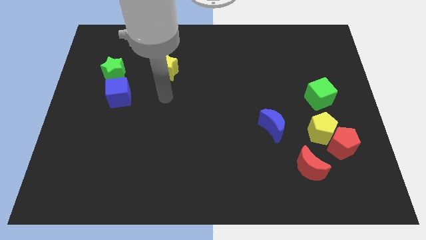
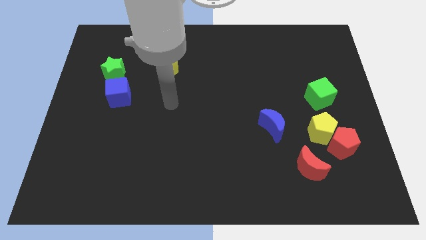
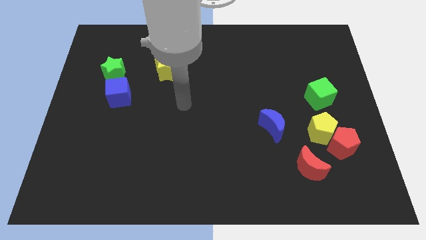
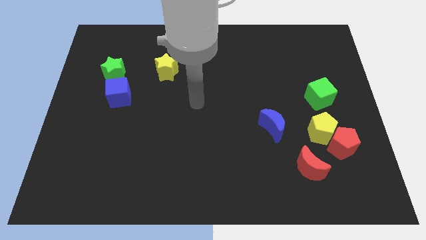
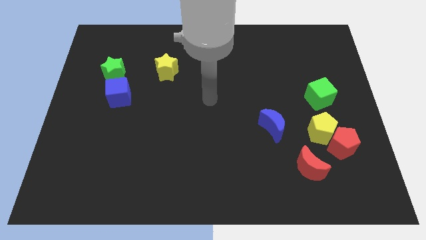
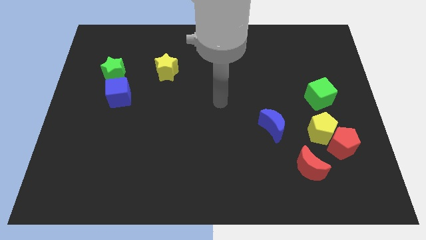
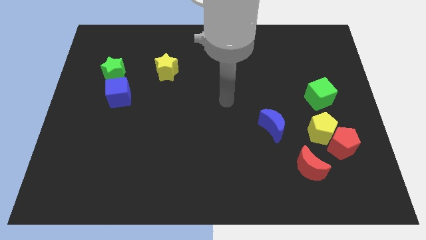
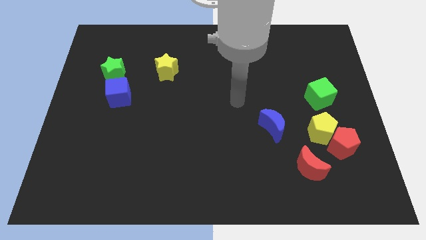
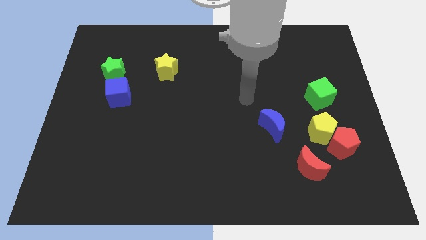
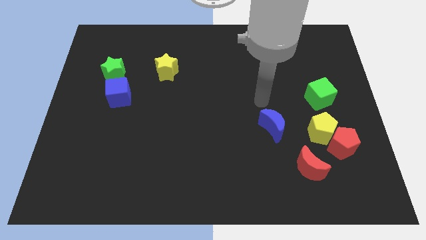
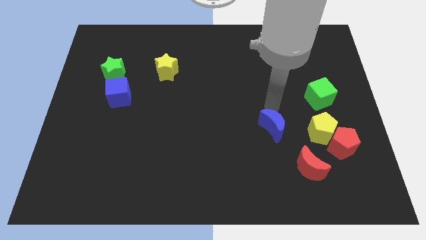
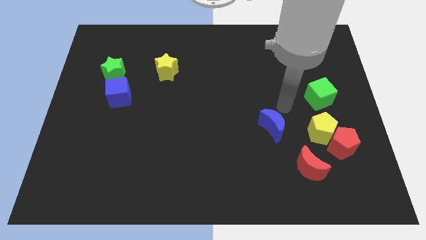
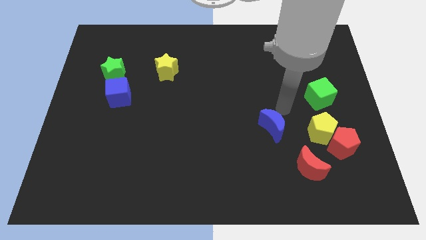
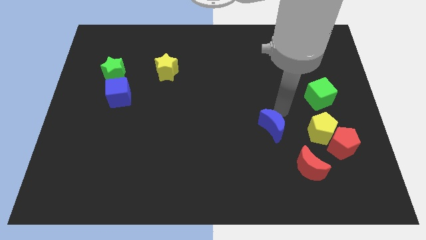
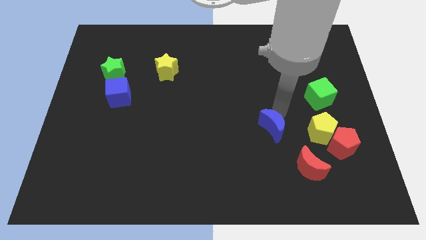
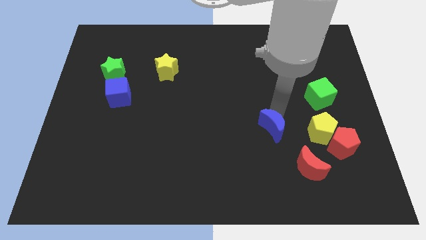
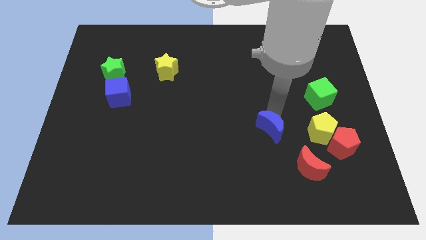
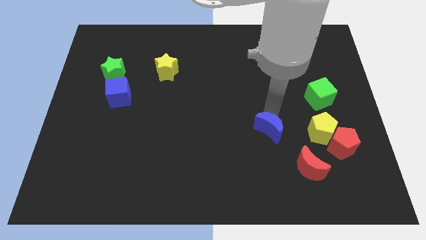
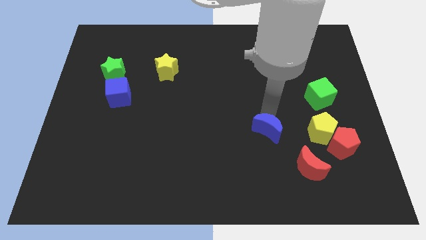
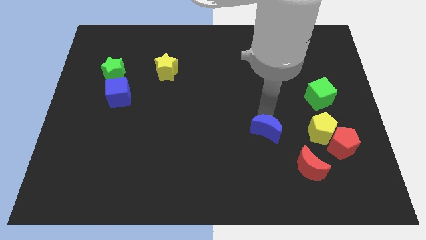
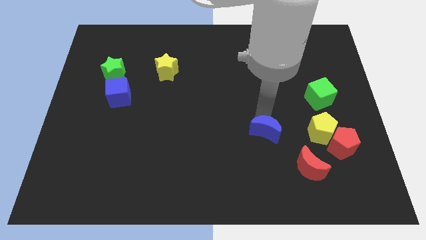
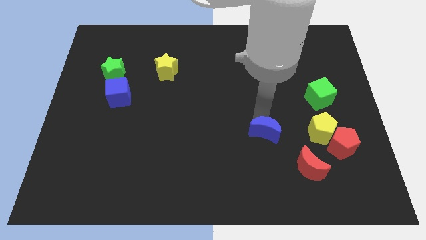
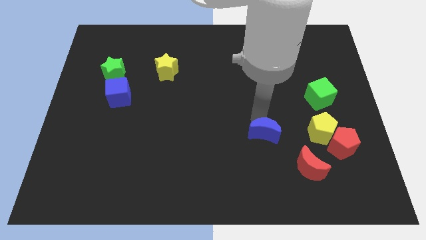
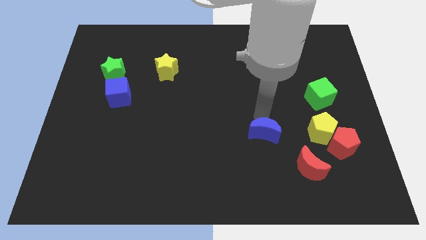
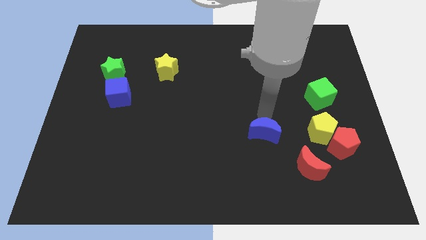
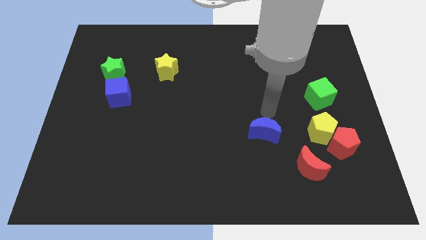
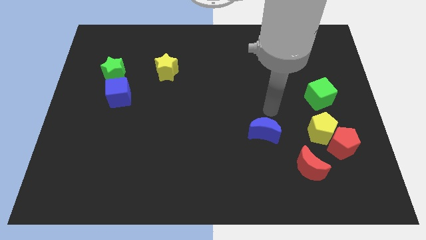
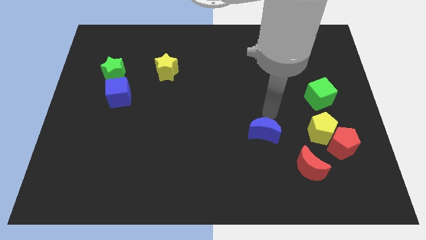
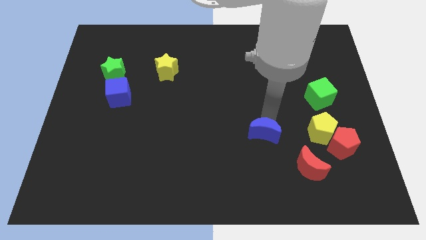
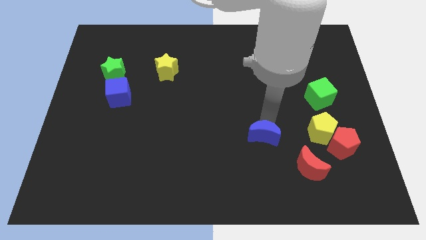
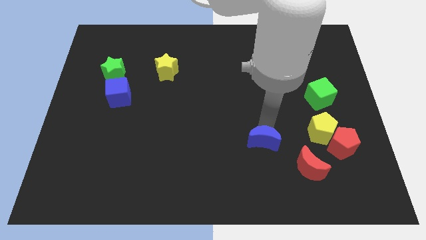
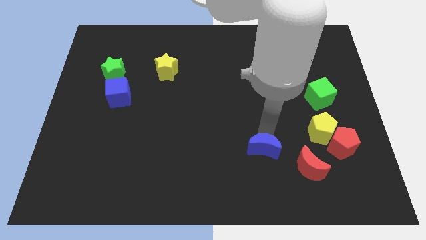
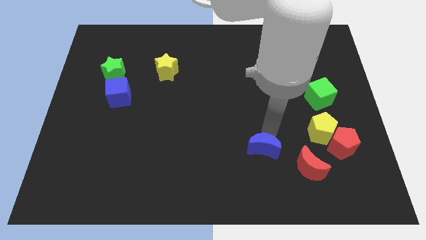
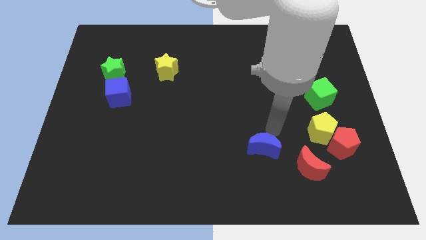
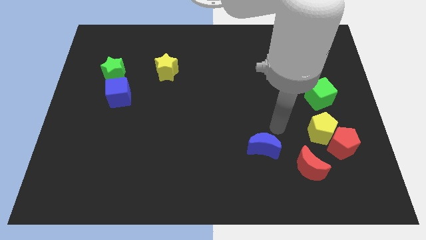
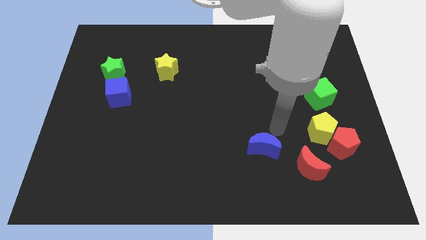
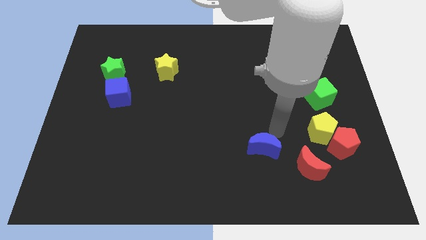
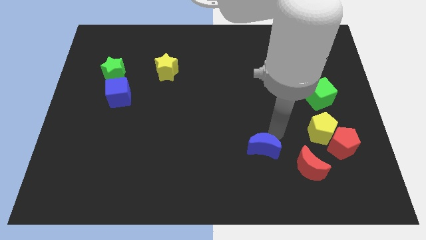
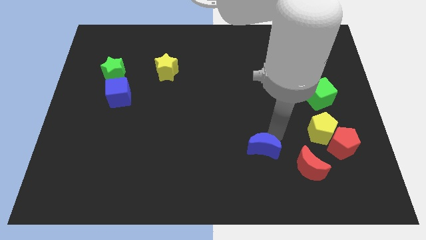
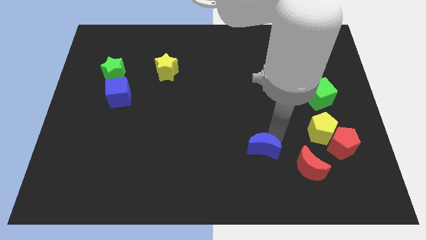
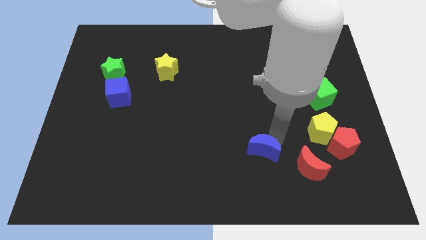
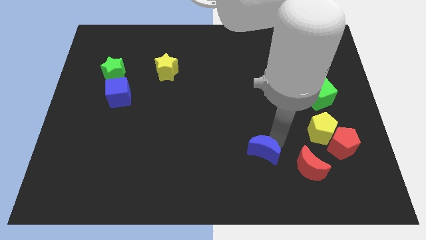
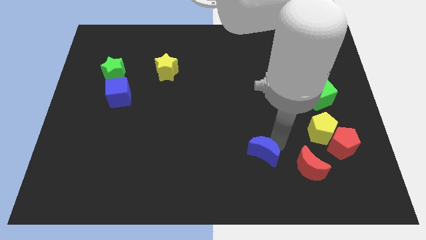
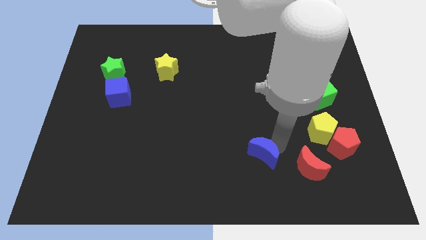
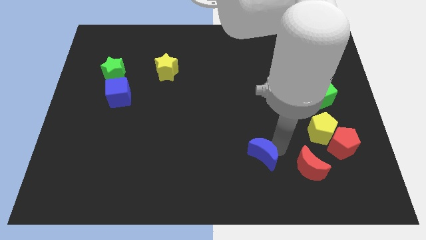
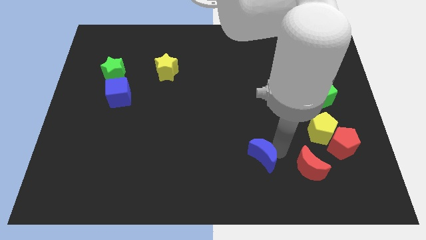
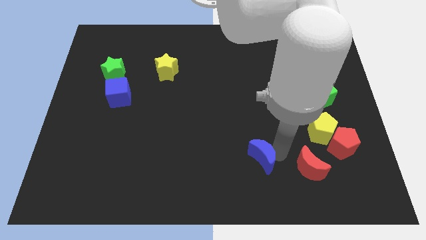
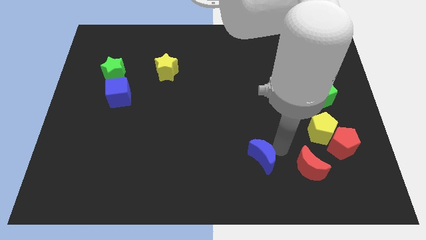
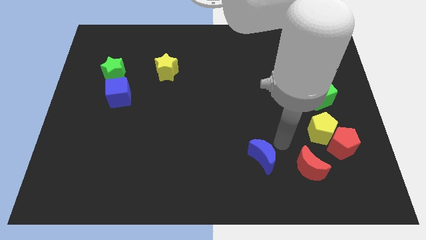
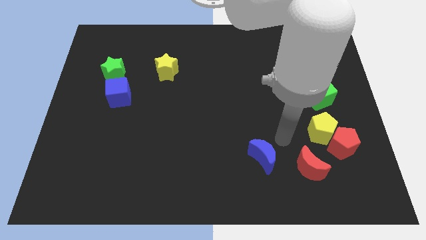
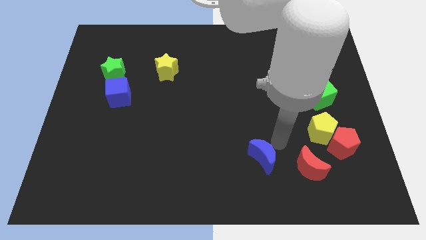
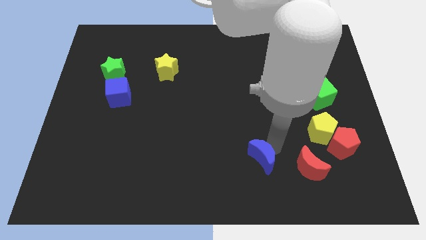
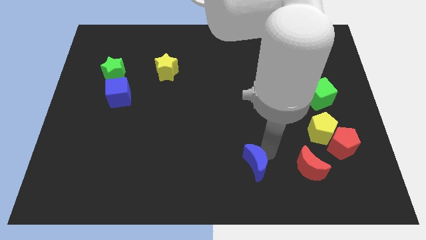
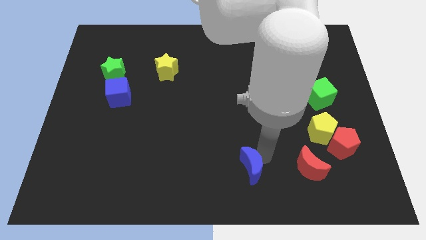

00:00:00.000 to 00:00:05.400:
slide the blue moon to the bottom side

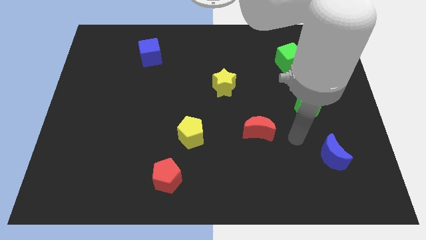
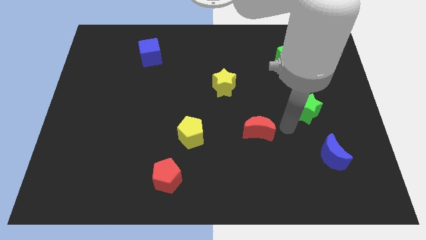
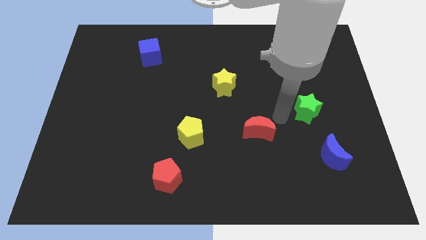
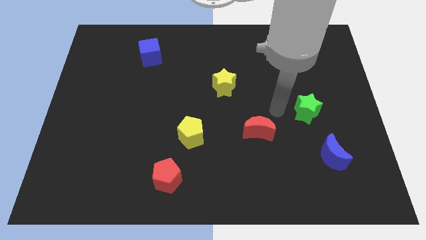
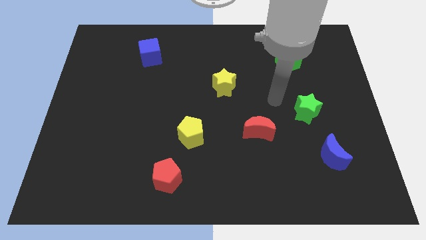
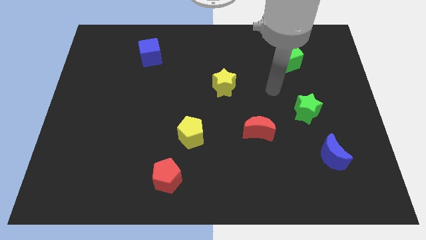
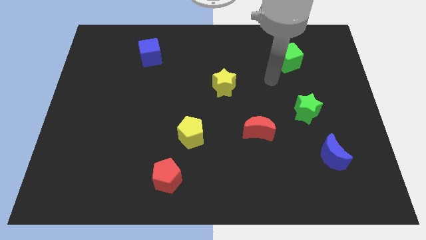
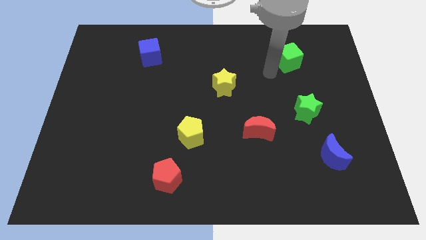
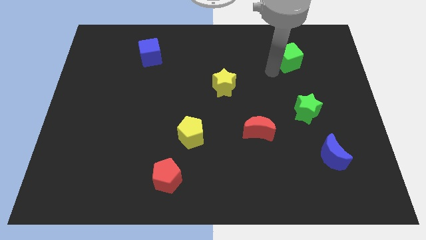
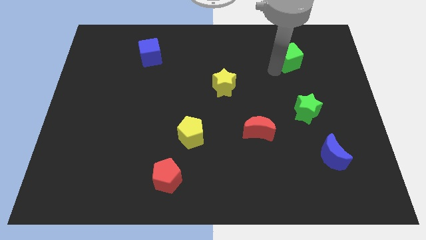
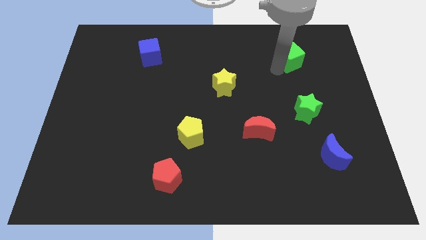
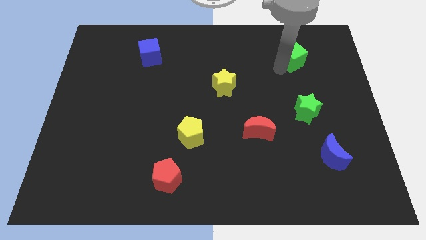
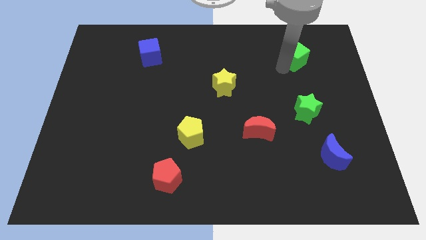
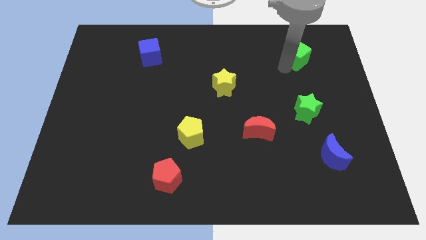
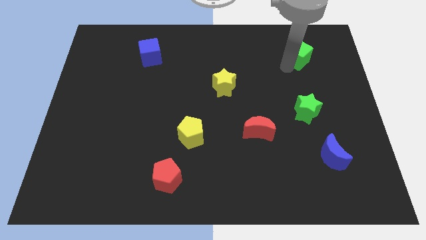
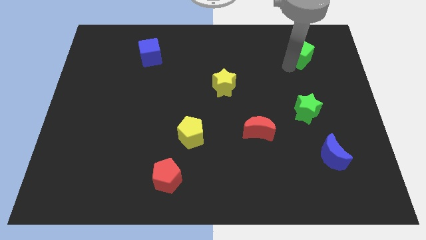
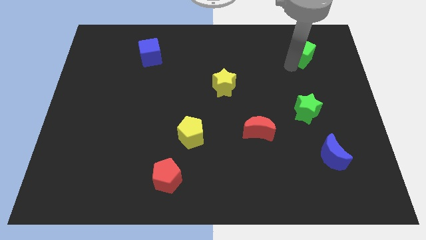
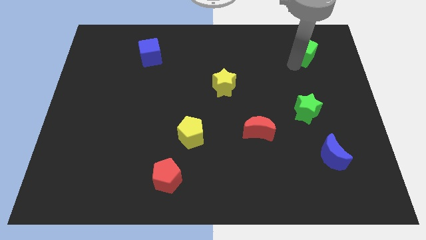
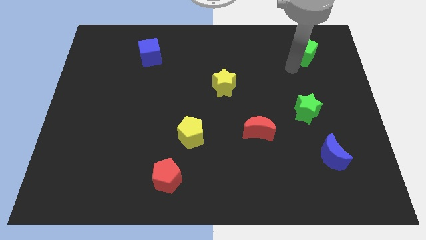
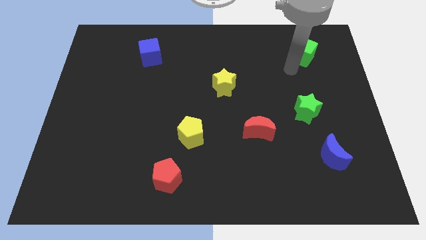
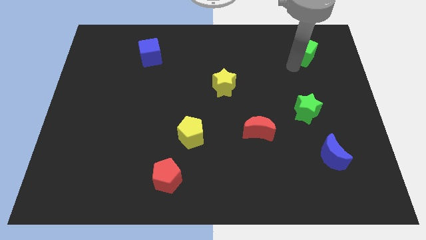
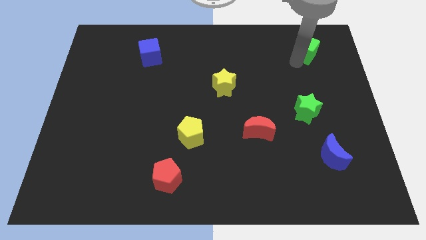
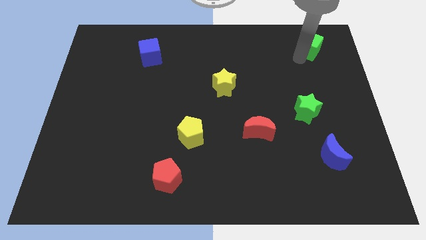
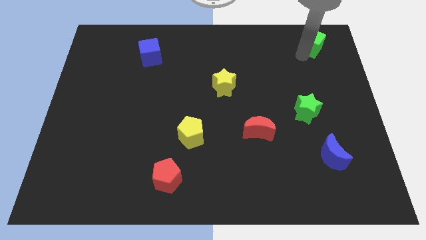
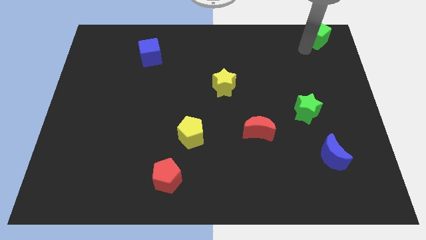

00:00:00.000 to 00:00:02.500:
put the green cube to the top right of the board
